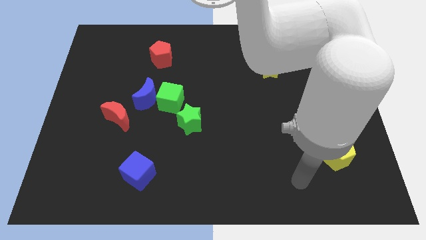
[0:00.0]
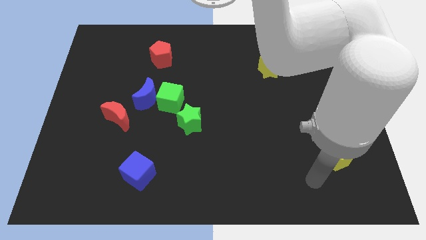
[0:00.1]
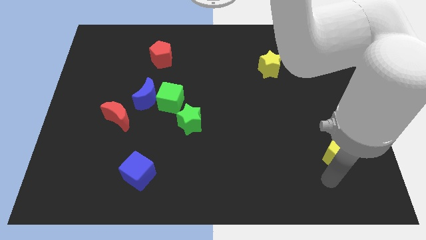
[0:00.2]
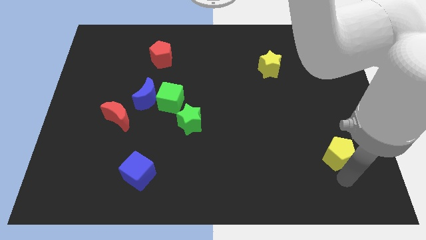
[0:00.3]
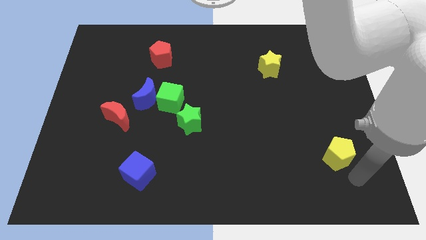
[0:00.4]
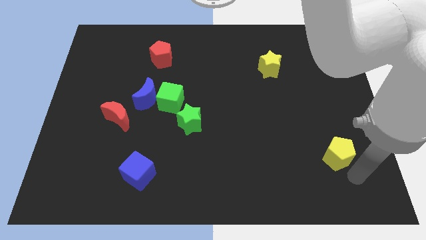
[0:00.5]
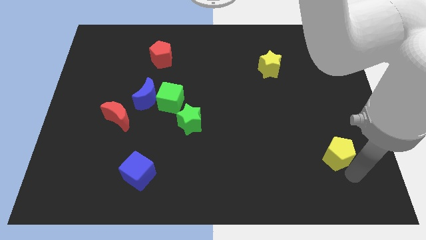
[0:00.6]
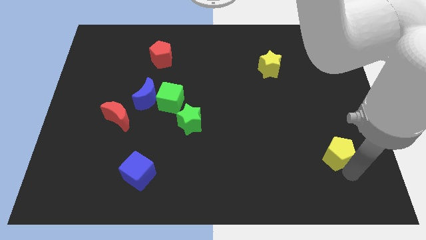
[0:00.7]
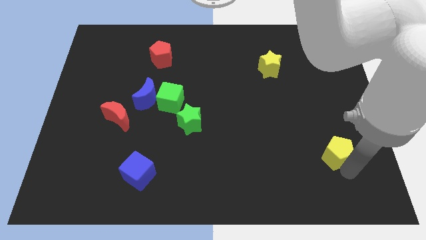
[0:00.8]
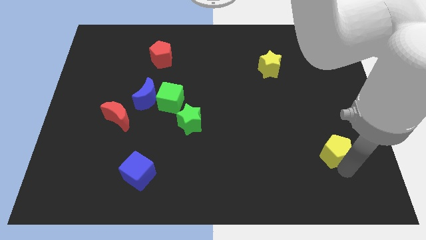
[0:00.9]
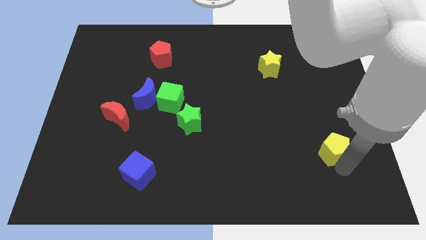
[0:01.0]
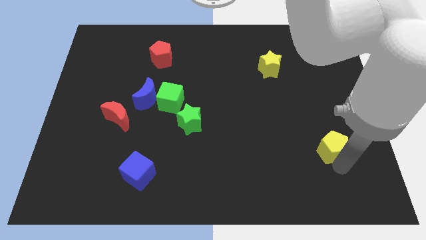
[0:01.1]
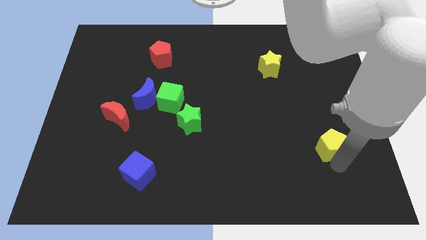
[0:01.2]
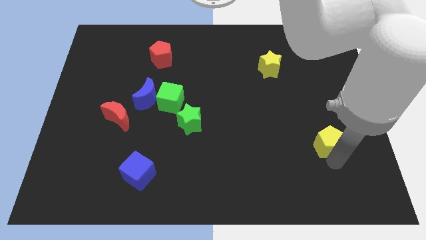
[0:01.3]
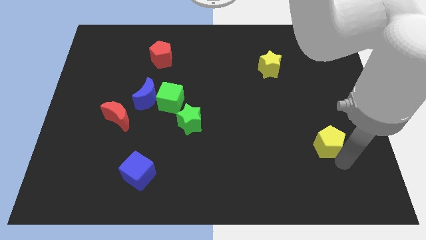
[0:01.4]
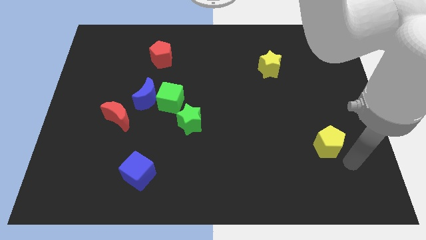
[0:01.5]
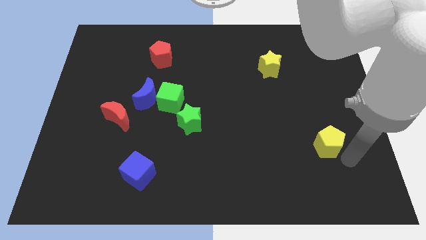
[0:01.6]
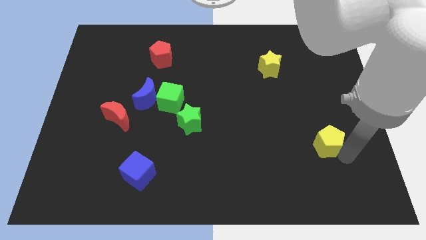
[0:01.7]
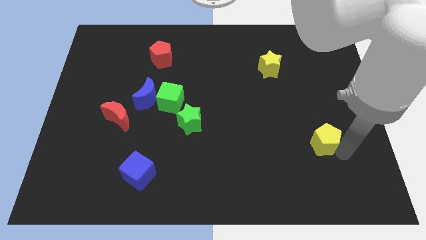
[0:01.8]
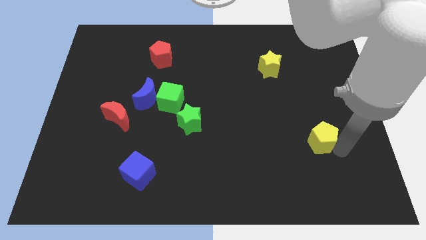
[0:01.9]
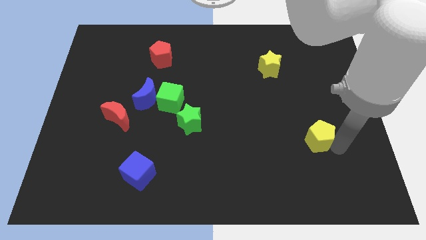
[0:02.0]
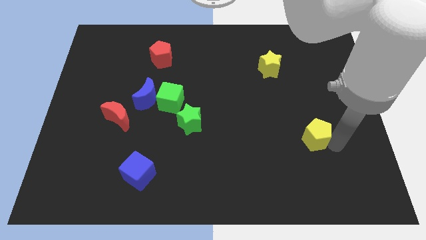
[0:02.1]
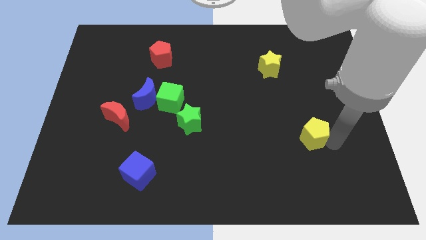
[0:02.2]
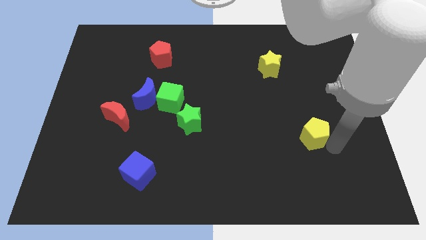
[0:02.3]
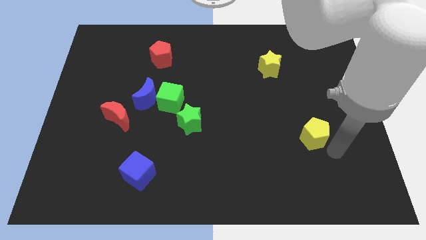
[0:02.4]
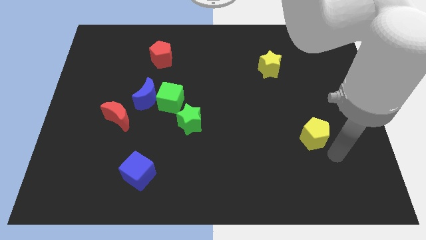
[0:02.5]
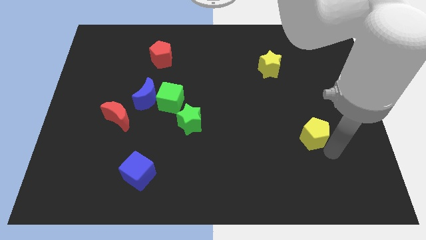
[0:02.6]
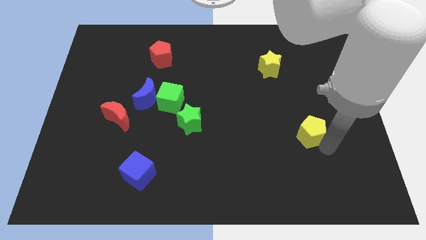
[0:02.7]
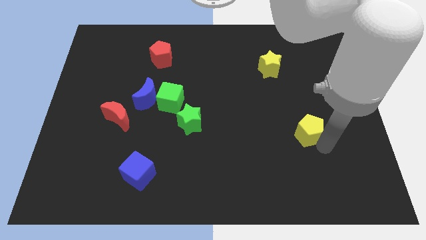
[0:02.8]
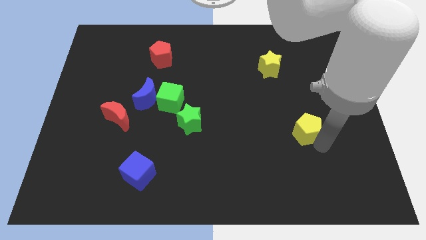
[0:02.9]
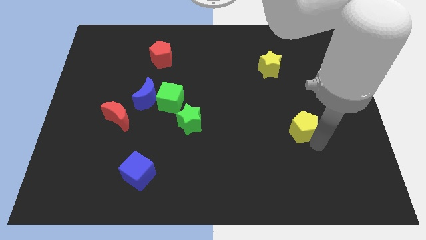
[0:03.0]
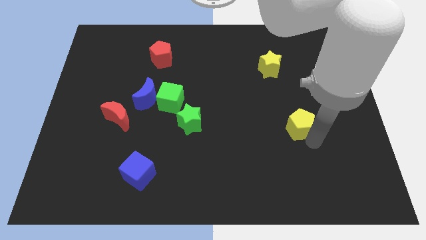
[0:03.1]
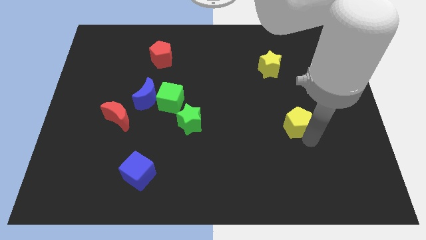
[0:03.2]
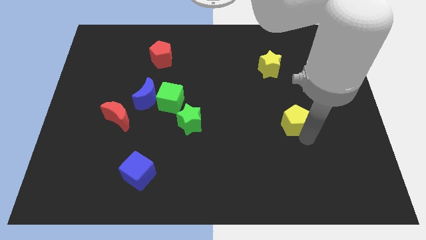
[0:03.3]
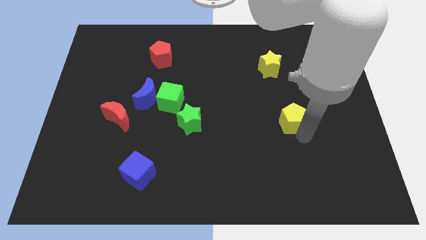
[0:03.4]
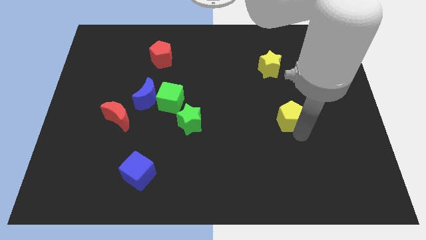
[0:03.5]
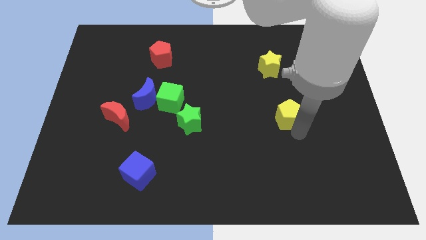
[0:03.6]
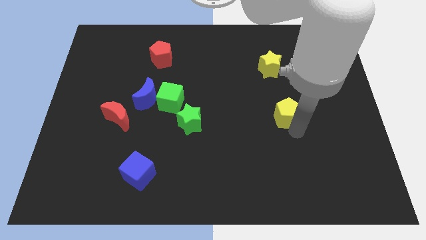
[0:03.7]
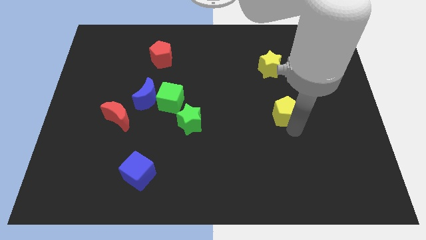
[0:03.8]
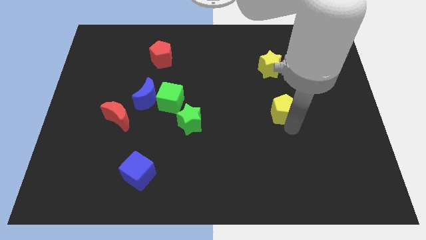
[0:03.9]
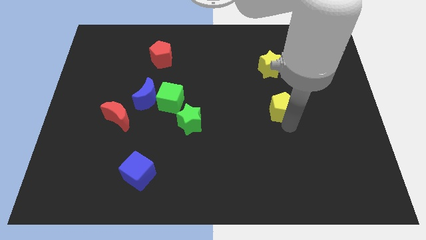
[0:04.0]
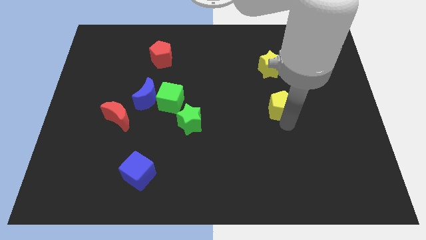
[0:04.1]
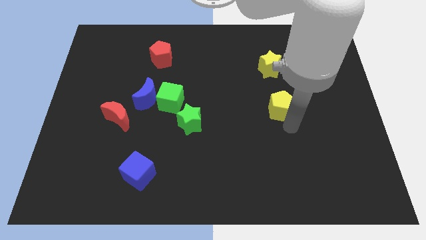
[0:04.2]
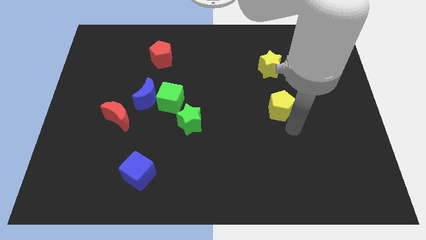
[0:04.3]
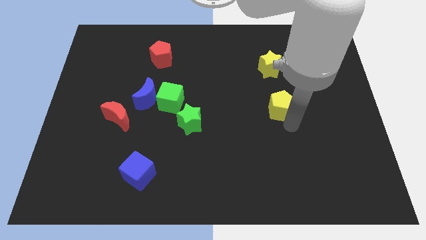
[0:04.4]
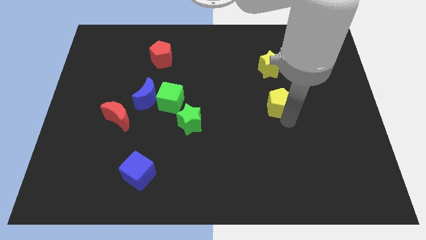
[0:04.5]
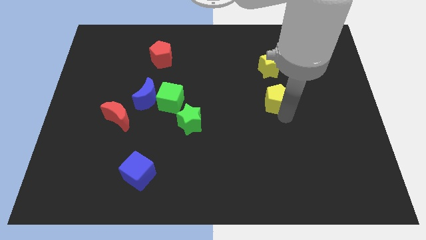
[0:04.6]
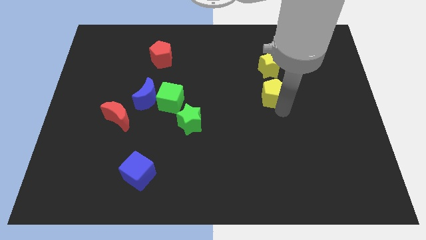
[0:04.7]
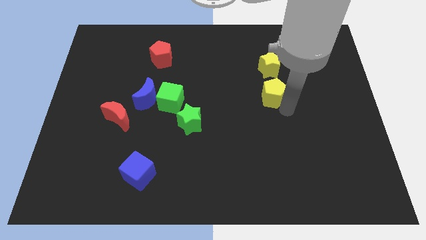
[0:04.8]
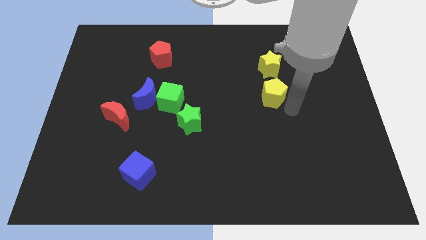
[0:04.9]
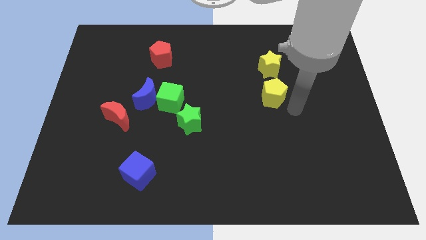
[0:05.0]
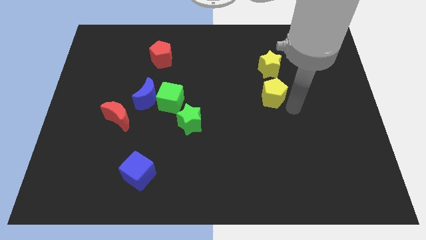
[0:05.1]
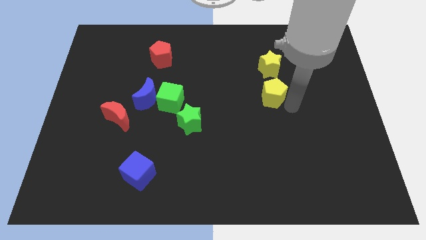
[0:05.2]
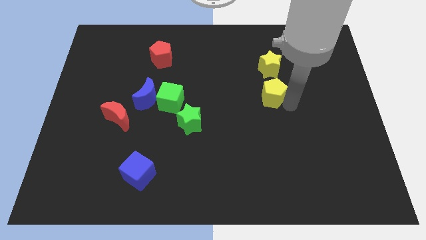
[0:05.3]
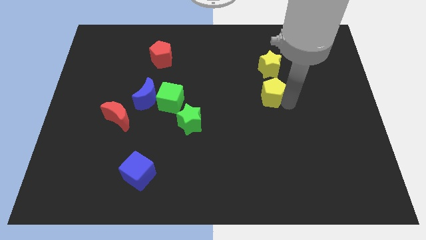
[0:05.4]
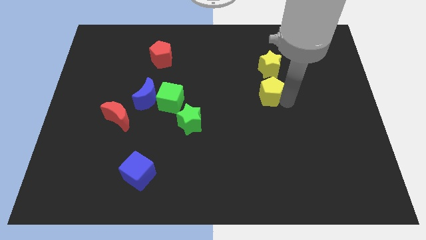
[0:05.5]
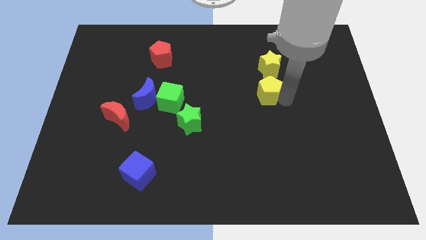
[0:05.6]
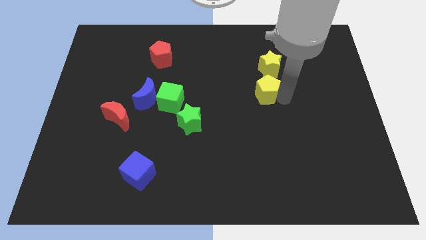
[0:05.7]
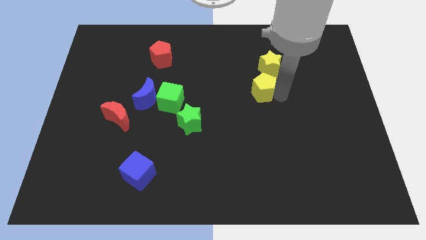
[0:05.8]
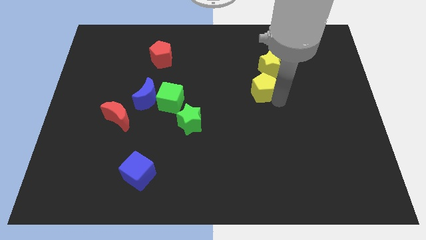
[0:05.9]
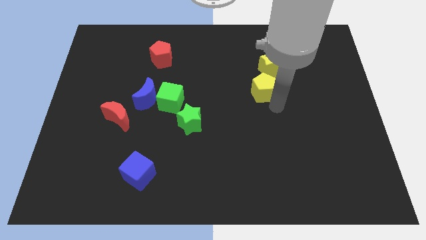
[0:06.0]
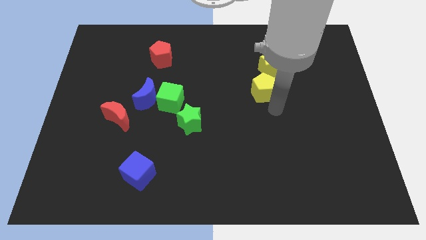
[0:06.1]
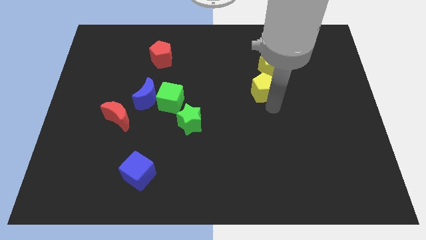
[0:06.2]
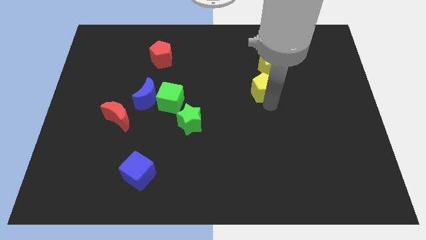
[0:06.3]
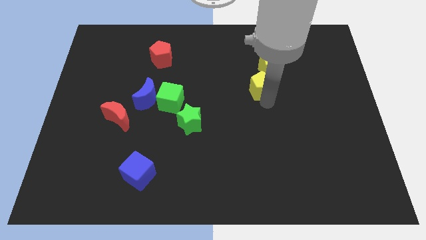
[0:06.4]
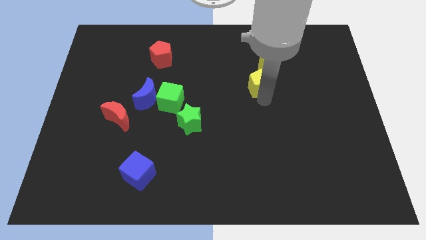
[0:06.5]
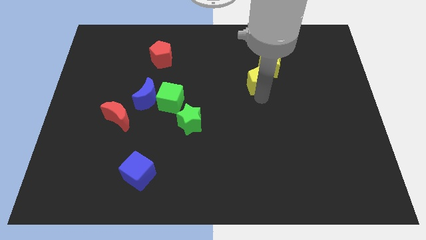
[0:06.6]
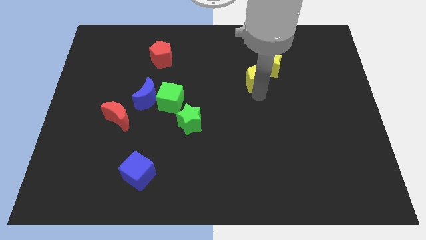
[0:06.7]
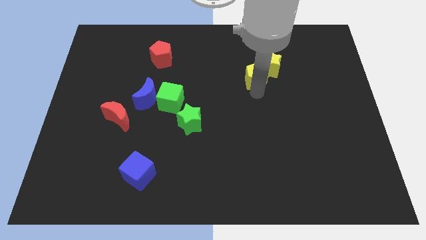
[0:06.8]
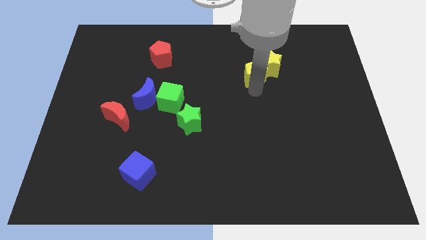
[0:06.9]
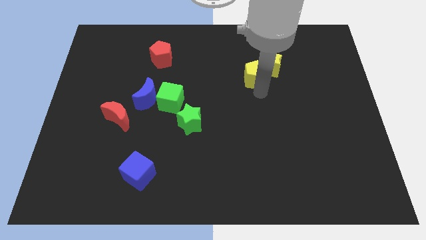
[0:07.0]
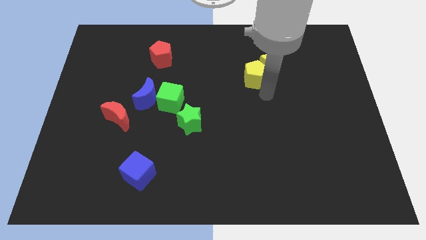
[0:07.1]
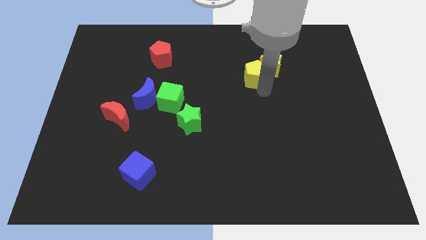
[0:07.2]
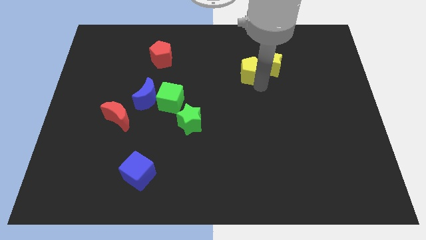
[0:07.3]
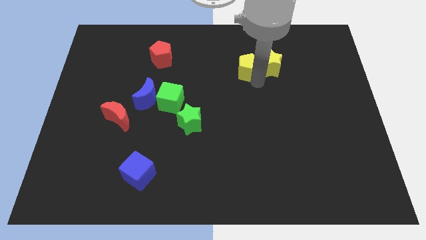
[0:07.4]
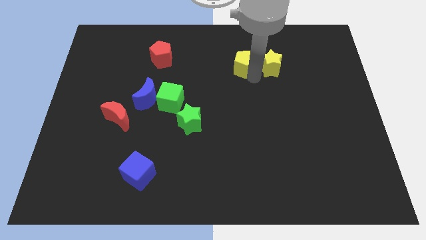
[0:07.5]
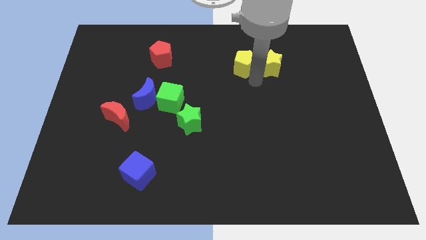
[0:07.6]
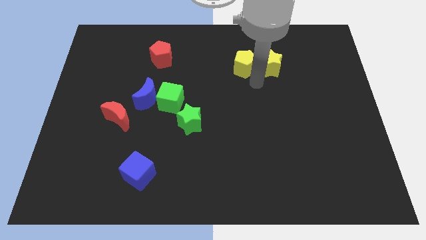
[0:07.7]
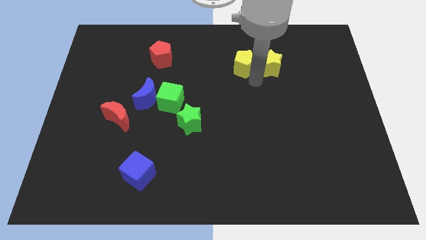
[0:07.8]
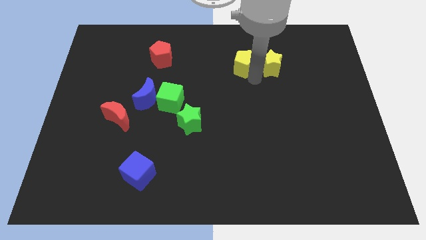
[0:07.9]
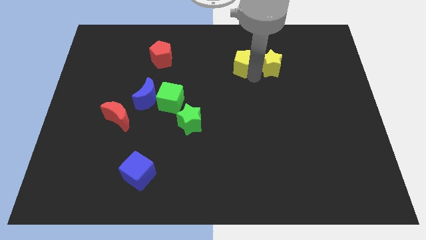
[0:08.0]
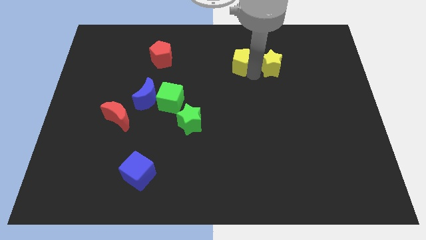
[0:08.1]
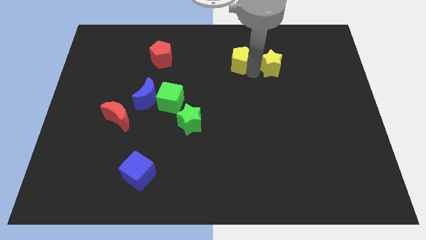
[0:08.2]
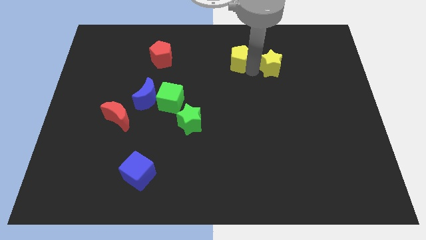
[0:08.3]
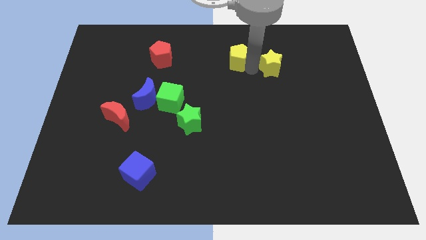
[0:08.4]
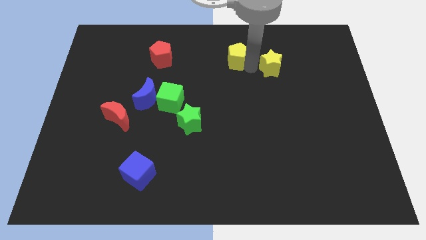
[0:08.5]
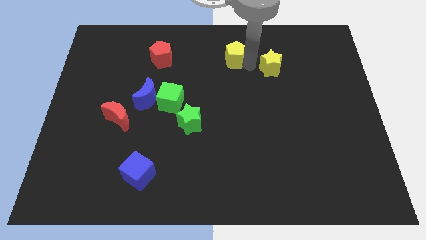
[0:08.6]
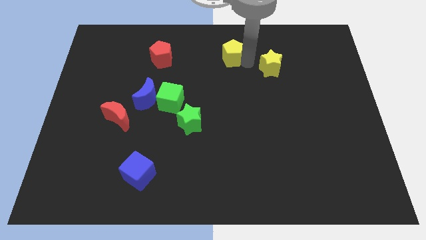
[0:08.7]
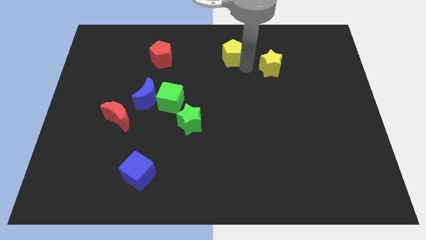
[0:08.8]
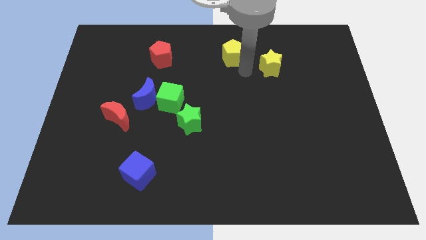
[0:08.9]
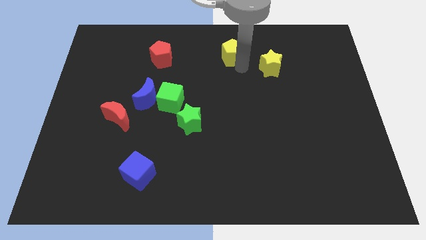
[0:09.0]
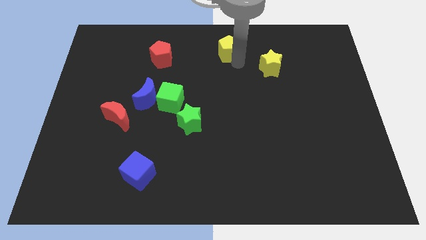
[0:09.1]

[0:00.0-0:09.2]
put the yellow pentagon to the top side
